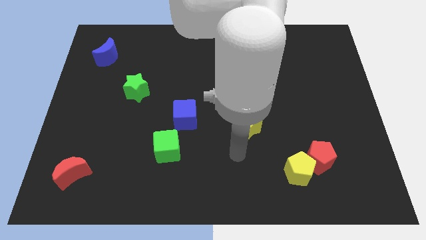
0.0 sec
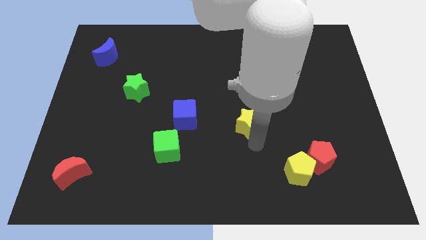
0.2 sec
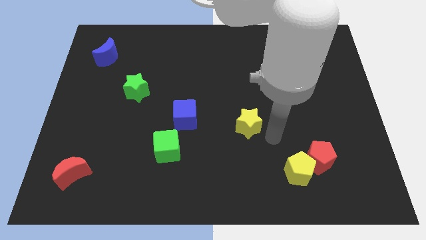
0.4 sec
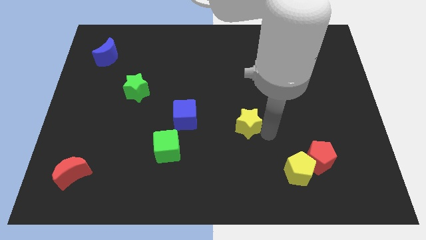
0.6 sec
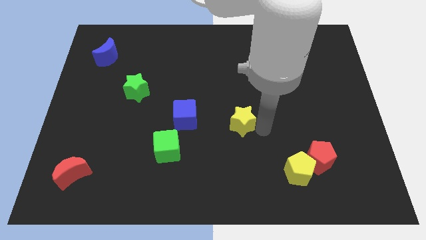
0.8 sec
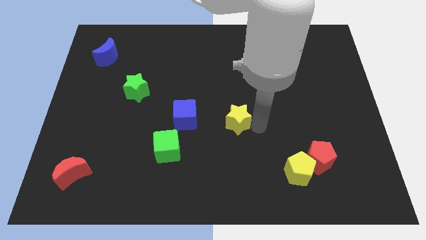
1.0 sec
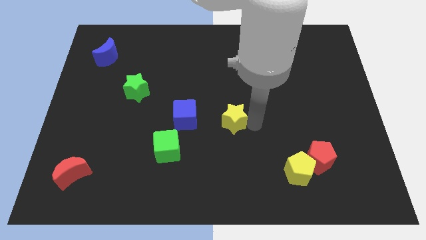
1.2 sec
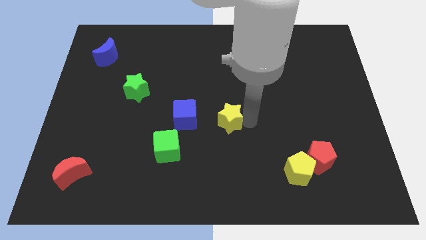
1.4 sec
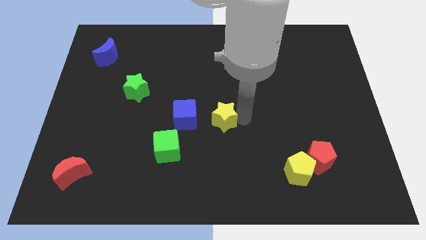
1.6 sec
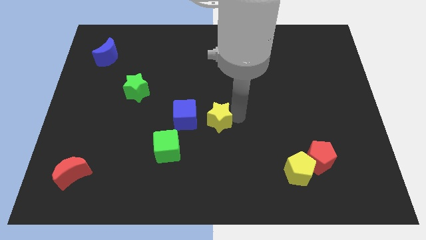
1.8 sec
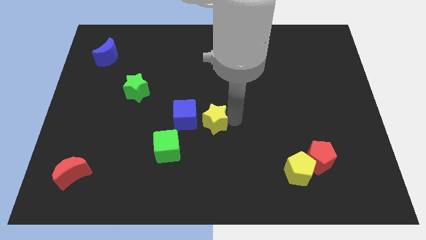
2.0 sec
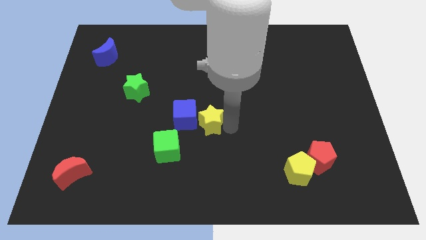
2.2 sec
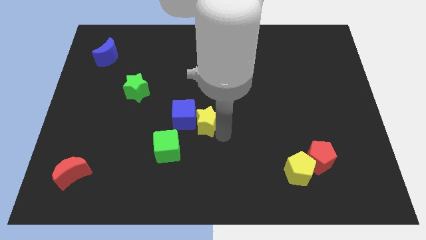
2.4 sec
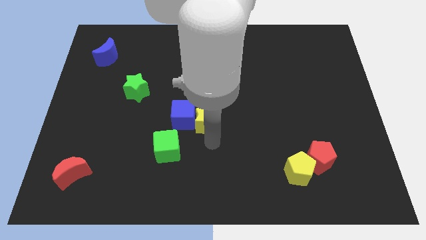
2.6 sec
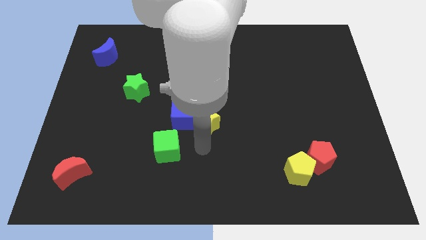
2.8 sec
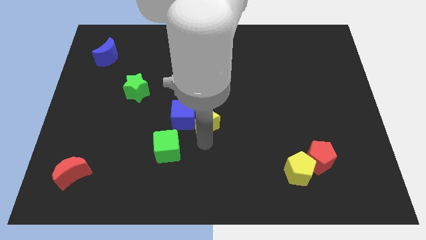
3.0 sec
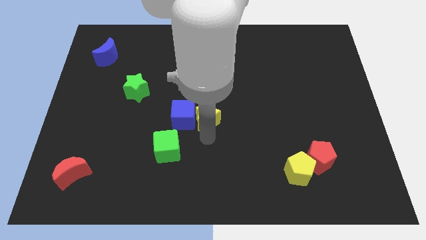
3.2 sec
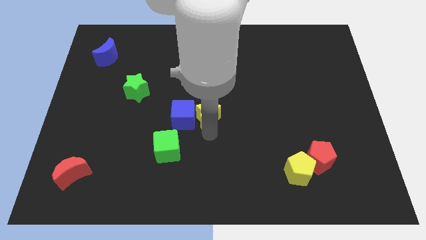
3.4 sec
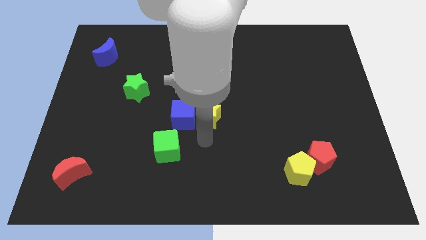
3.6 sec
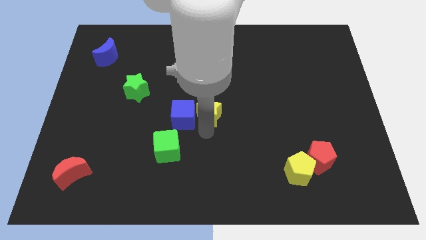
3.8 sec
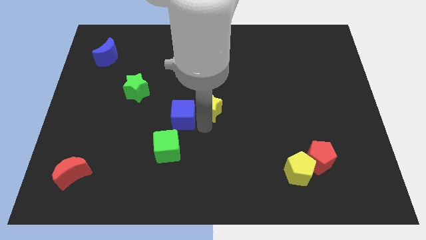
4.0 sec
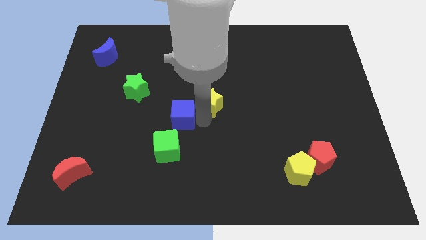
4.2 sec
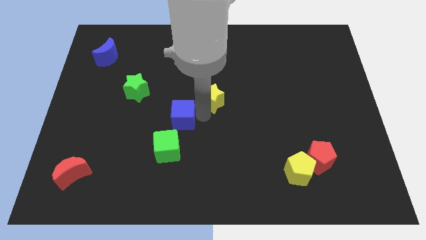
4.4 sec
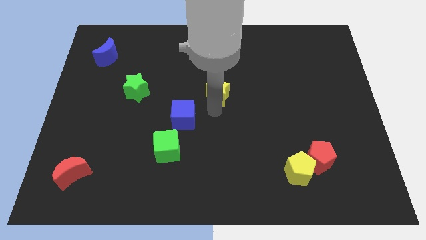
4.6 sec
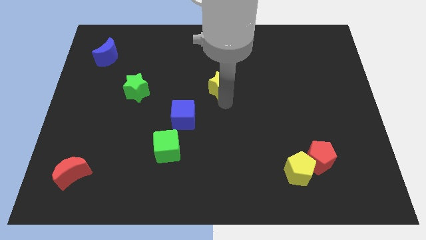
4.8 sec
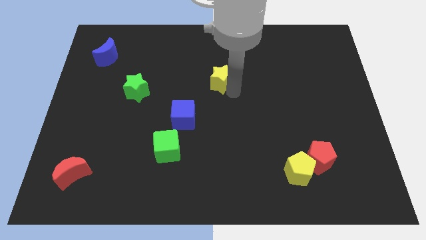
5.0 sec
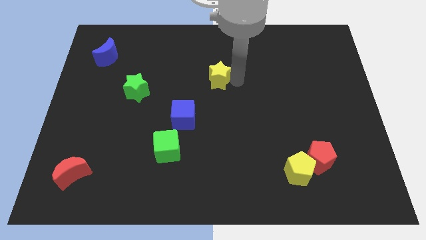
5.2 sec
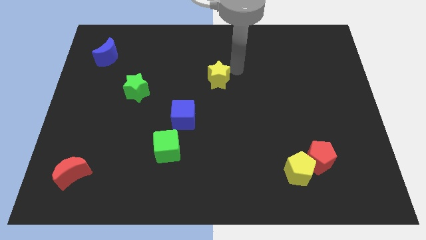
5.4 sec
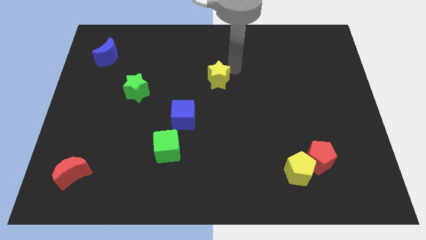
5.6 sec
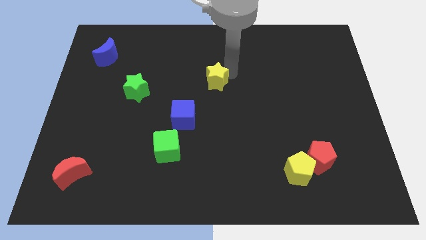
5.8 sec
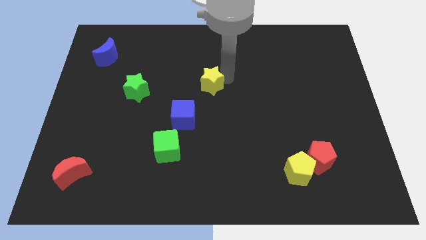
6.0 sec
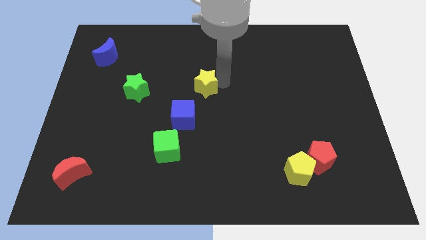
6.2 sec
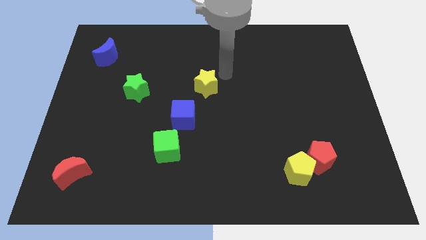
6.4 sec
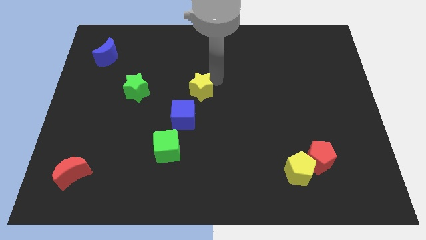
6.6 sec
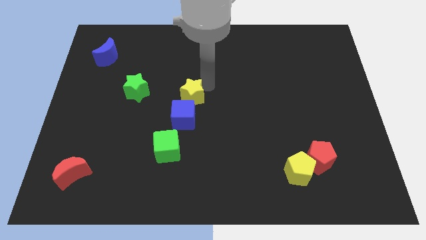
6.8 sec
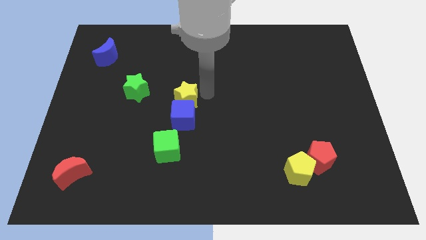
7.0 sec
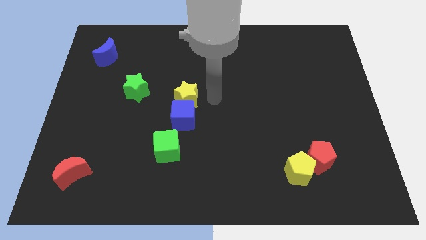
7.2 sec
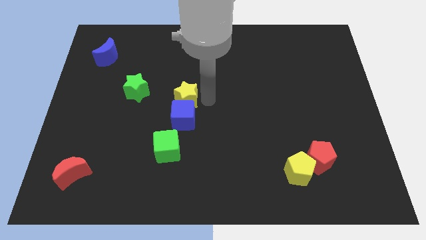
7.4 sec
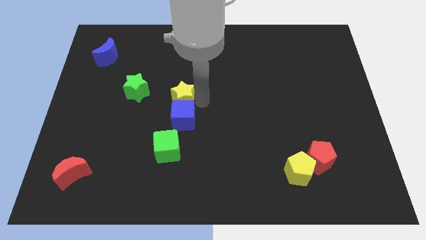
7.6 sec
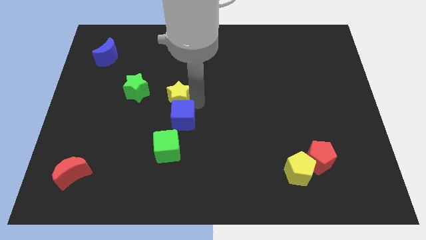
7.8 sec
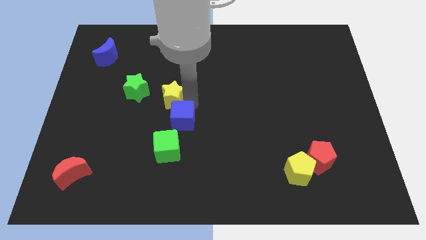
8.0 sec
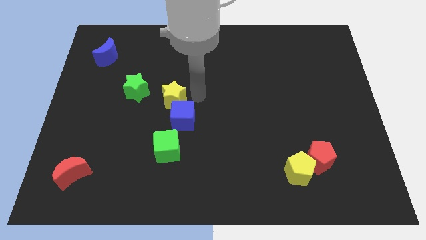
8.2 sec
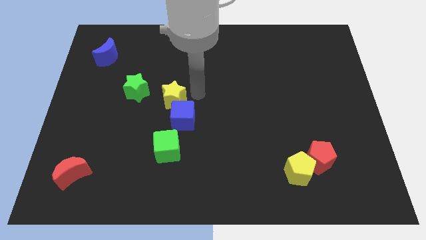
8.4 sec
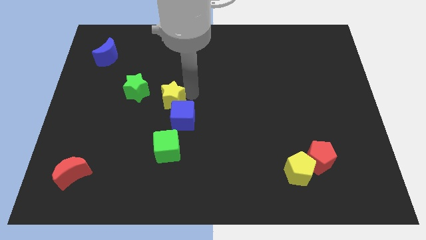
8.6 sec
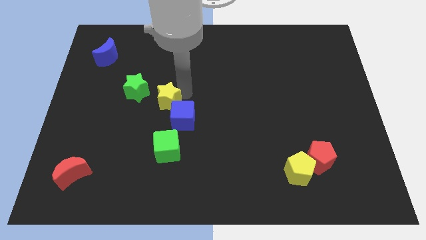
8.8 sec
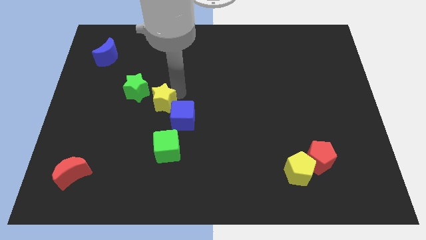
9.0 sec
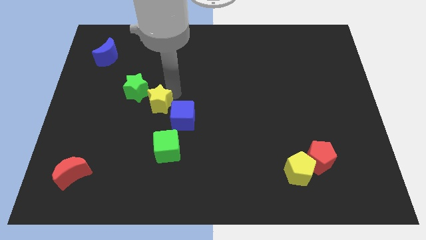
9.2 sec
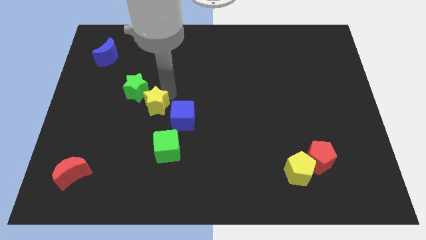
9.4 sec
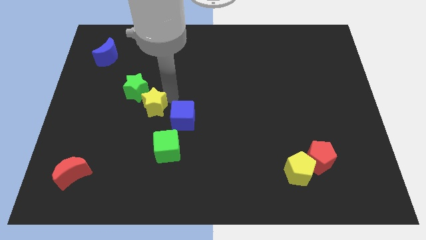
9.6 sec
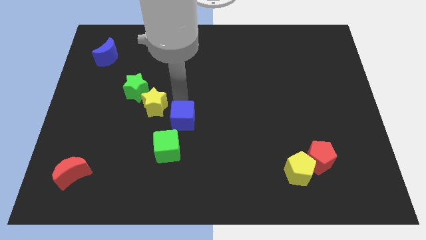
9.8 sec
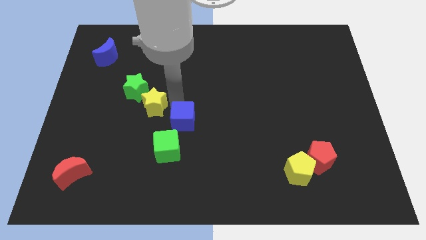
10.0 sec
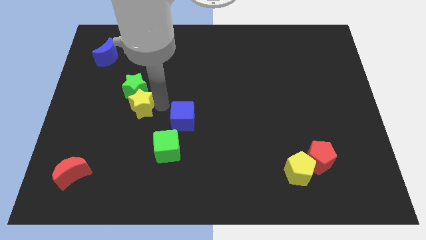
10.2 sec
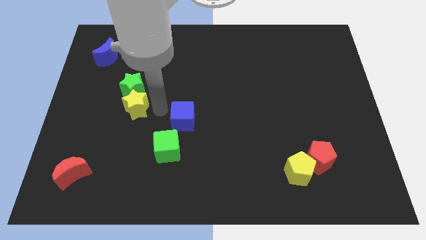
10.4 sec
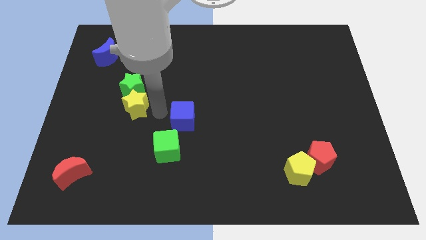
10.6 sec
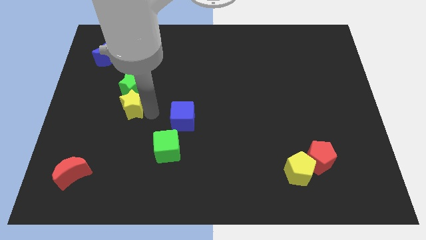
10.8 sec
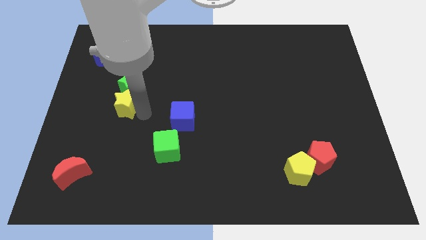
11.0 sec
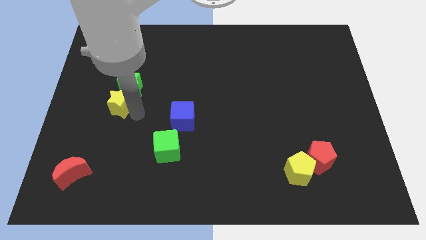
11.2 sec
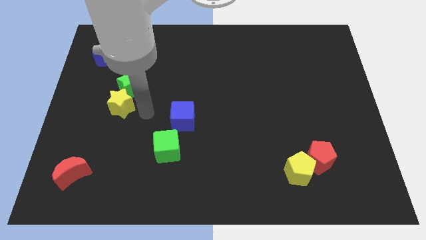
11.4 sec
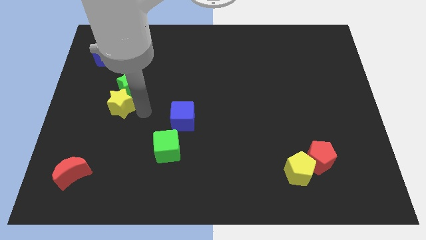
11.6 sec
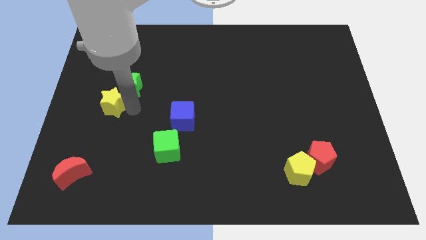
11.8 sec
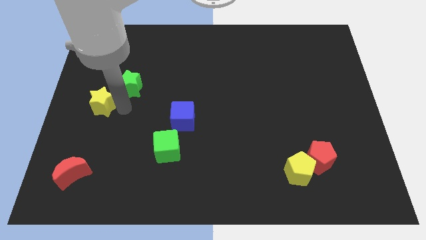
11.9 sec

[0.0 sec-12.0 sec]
slide the yellow star just left of the green star

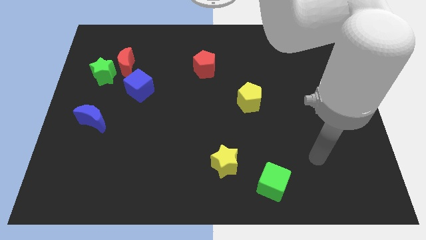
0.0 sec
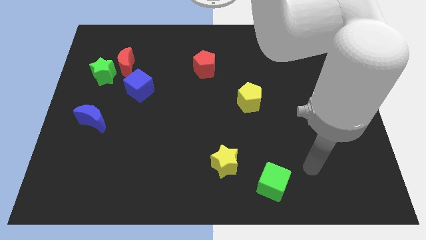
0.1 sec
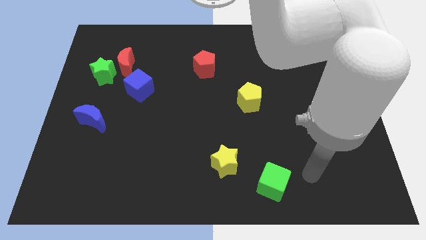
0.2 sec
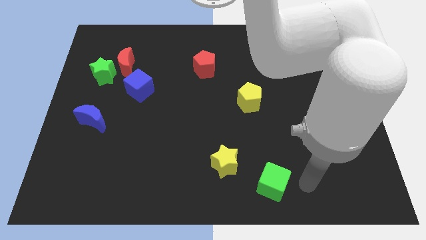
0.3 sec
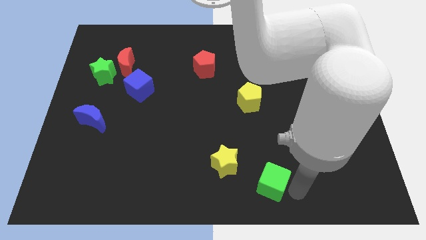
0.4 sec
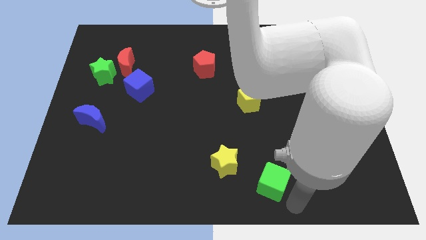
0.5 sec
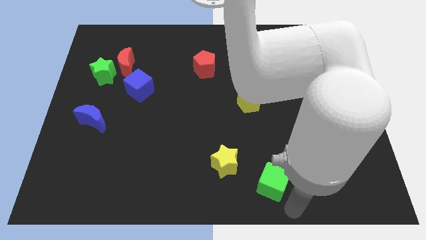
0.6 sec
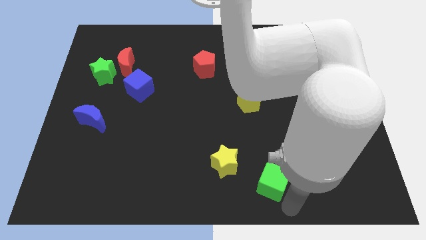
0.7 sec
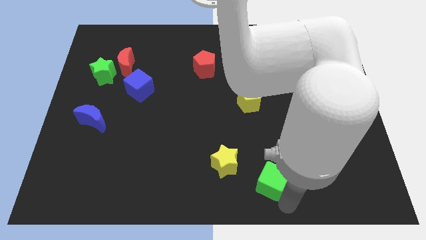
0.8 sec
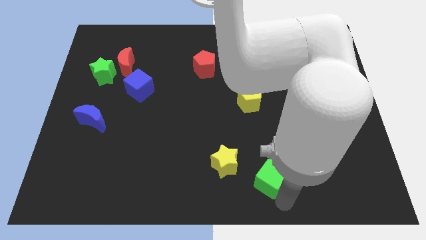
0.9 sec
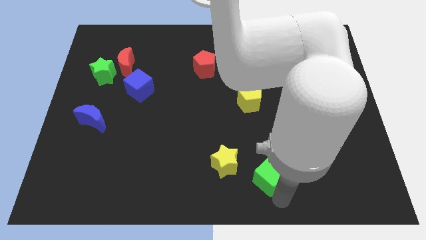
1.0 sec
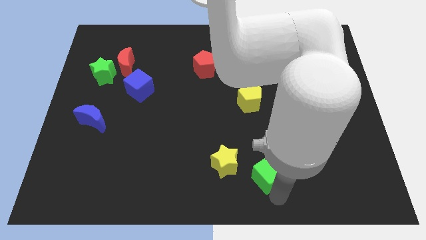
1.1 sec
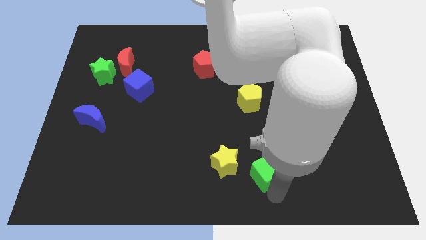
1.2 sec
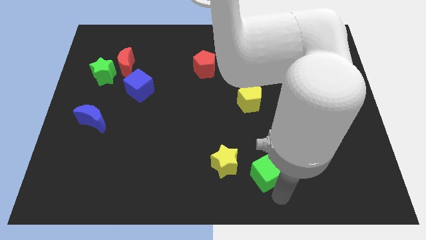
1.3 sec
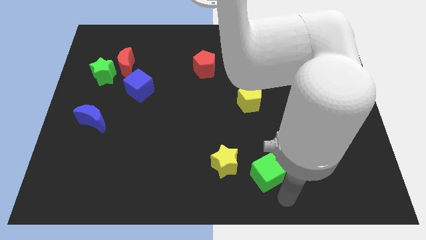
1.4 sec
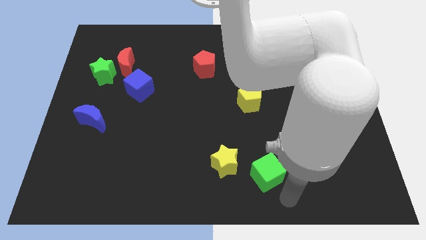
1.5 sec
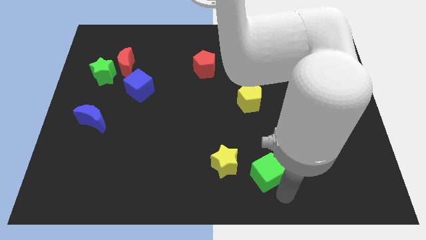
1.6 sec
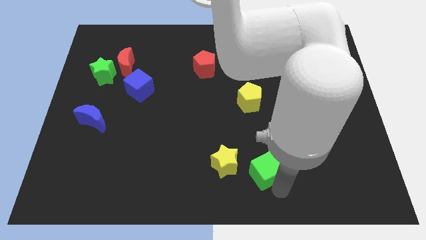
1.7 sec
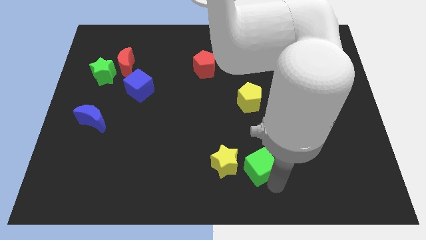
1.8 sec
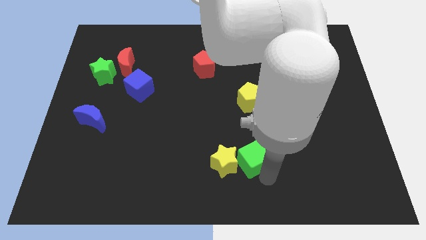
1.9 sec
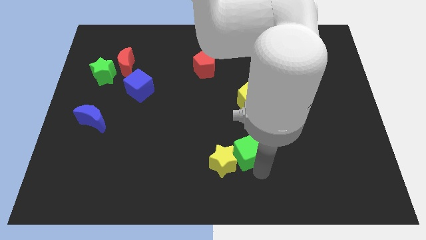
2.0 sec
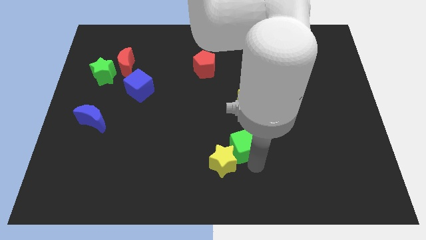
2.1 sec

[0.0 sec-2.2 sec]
put the green cube to the top side of the yellow star
